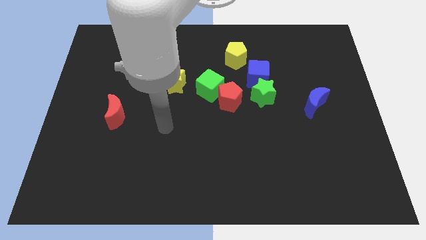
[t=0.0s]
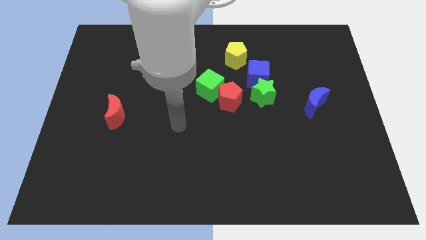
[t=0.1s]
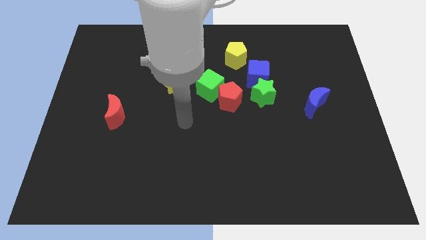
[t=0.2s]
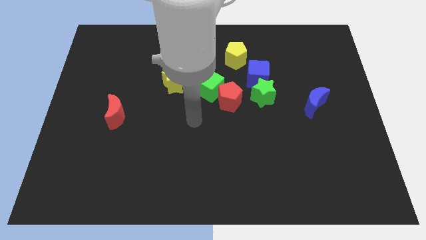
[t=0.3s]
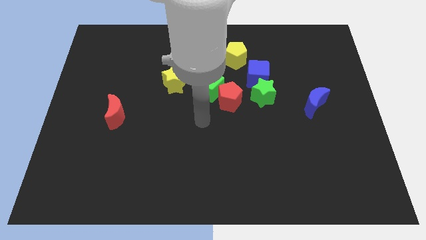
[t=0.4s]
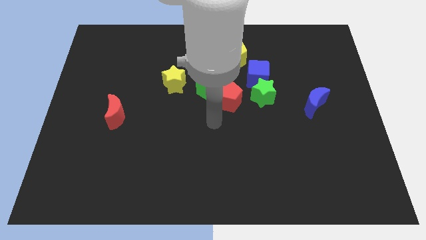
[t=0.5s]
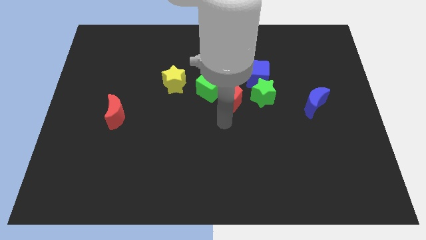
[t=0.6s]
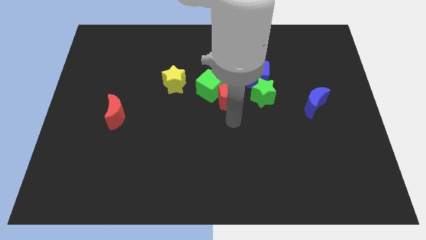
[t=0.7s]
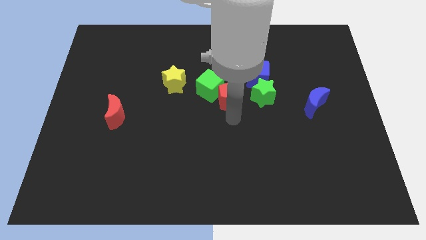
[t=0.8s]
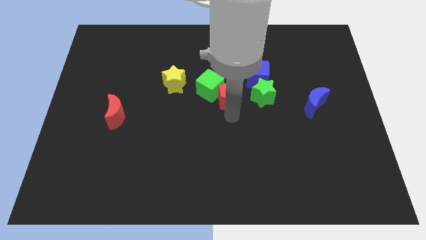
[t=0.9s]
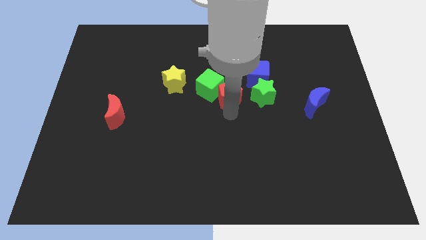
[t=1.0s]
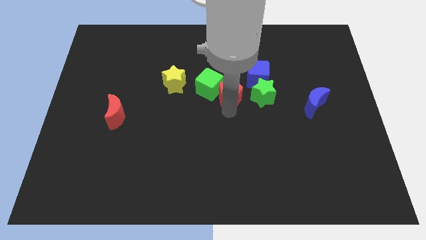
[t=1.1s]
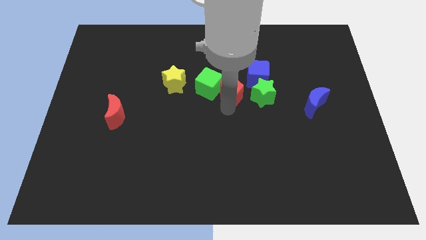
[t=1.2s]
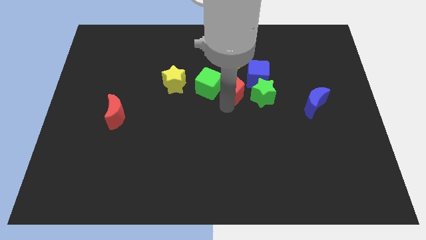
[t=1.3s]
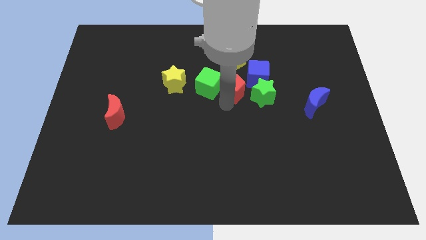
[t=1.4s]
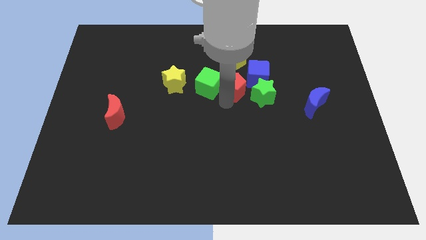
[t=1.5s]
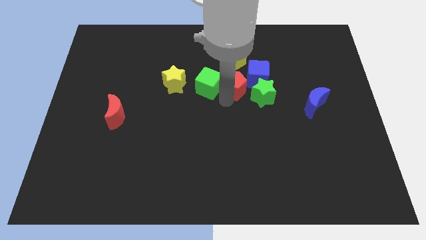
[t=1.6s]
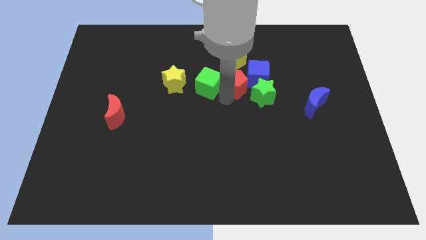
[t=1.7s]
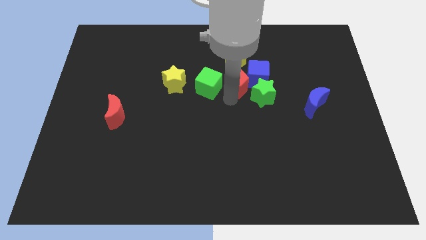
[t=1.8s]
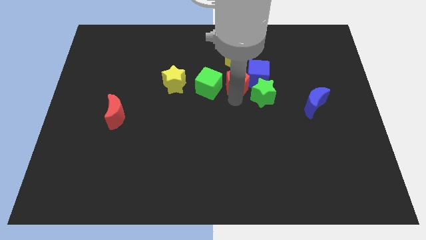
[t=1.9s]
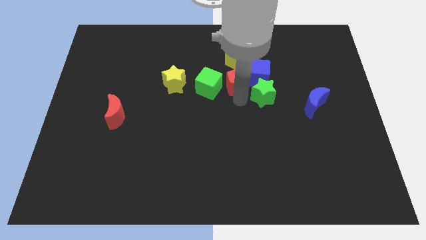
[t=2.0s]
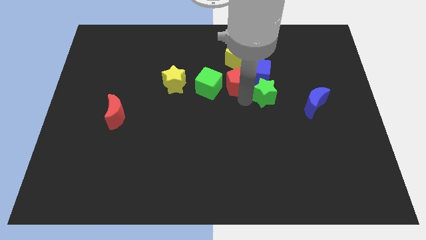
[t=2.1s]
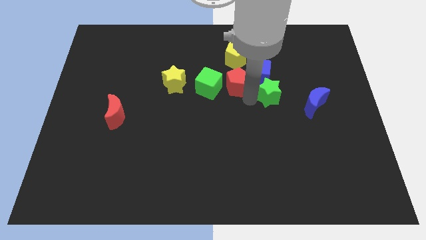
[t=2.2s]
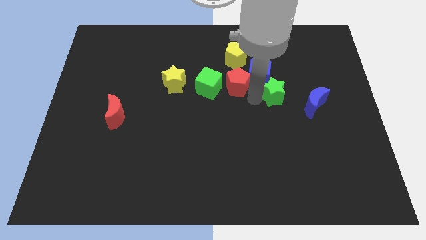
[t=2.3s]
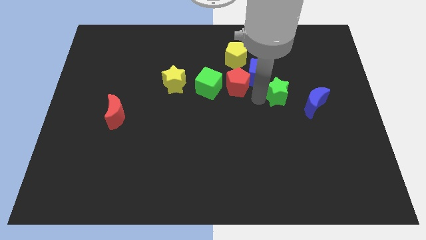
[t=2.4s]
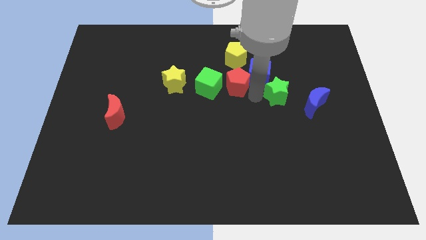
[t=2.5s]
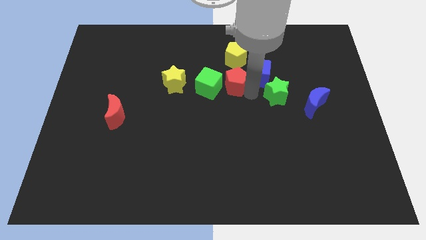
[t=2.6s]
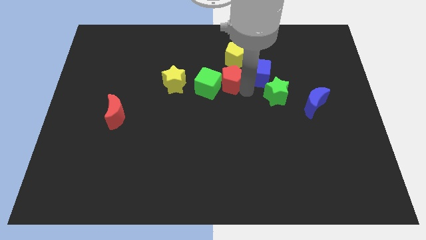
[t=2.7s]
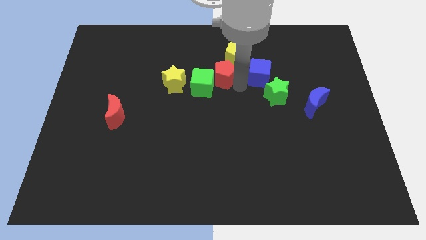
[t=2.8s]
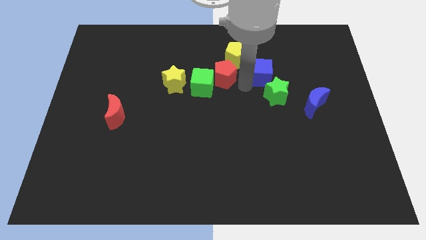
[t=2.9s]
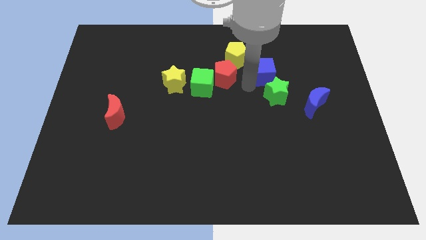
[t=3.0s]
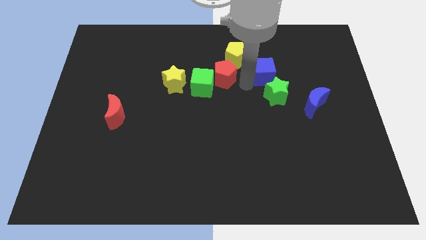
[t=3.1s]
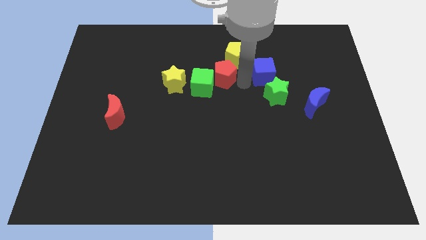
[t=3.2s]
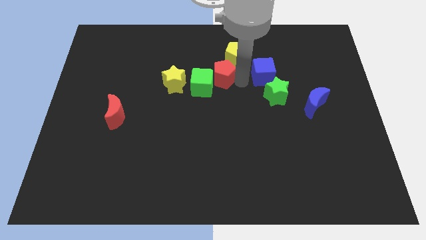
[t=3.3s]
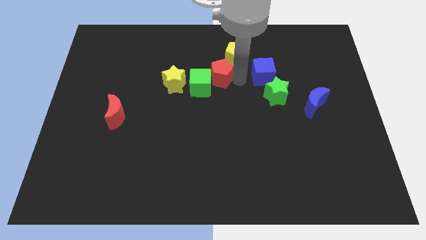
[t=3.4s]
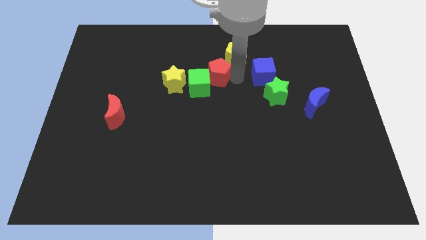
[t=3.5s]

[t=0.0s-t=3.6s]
slide the red pentagon a little bit upwards and then left

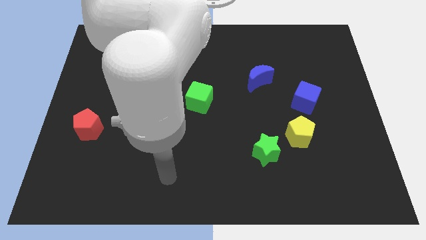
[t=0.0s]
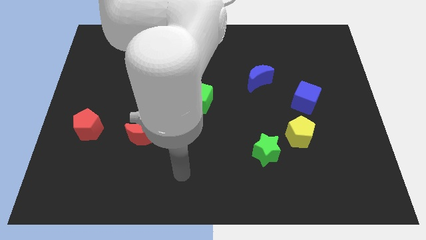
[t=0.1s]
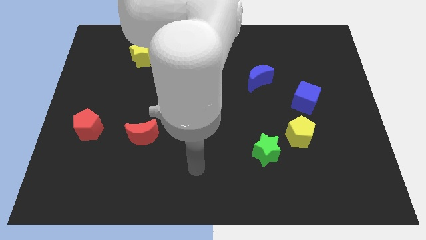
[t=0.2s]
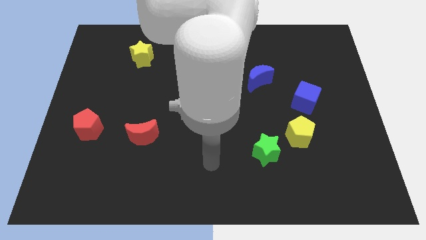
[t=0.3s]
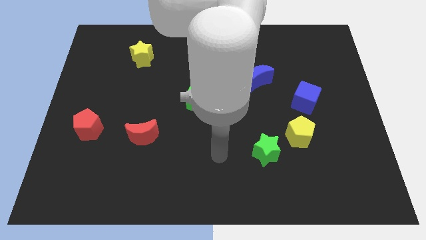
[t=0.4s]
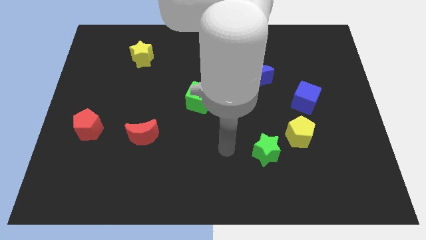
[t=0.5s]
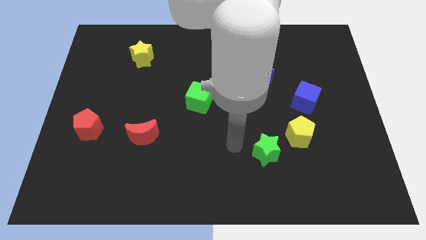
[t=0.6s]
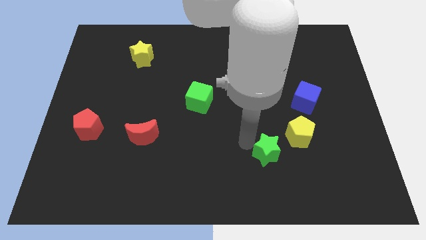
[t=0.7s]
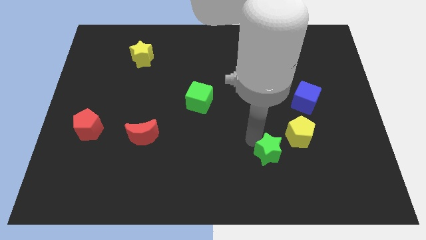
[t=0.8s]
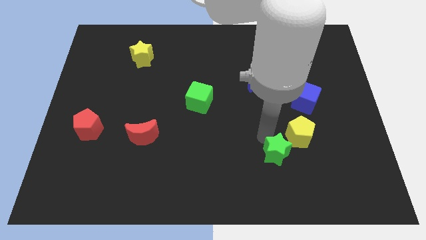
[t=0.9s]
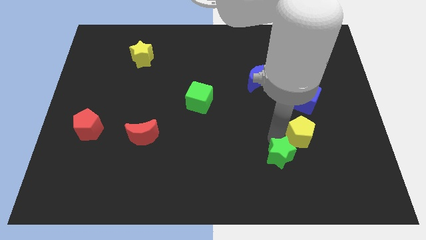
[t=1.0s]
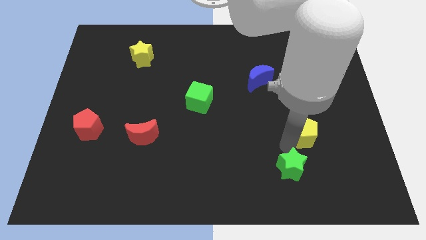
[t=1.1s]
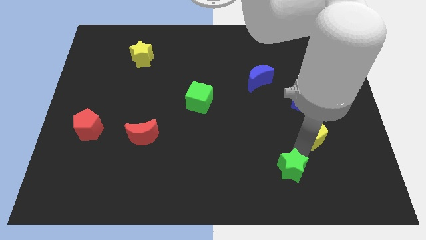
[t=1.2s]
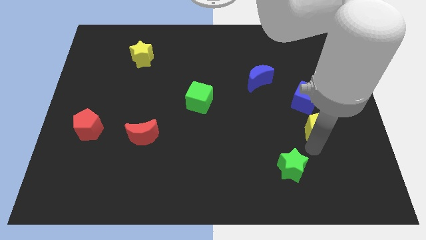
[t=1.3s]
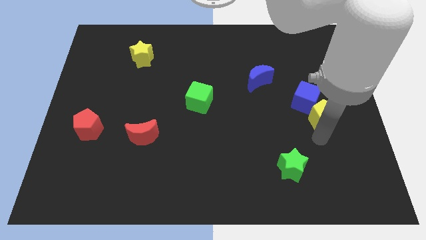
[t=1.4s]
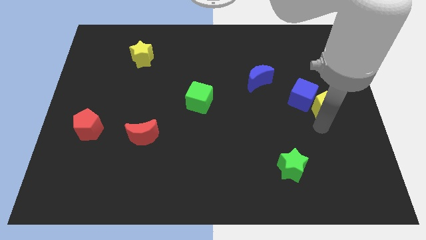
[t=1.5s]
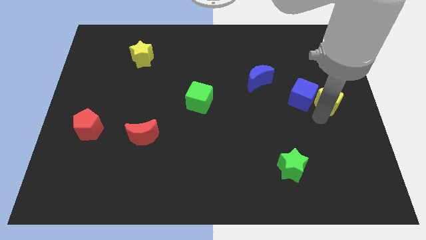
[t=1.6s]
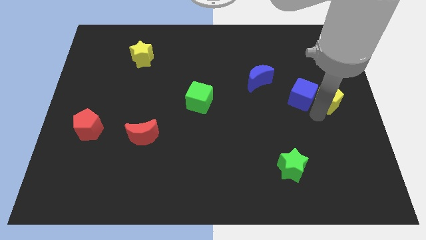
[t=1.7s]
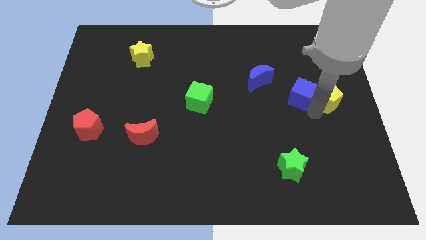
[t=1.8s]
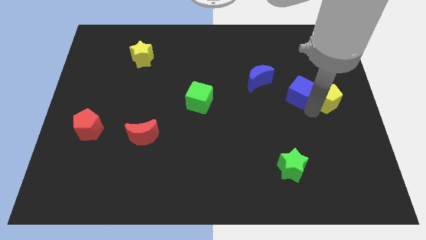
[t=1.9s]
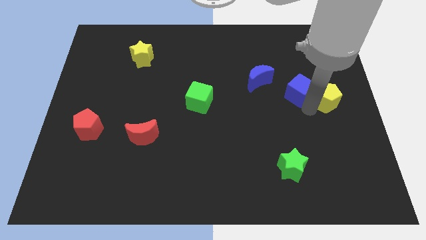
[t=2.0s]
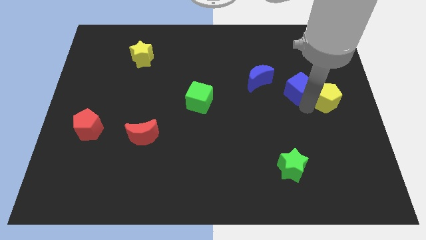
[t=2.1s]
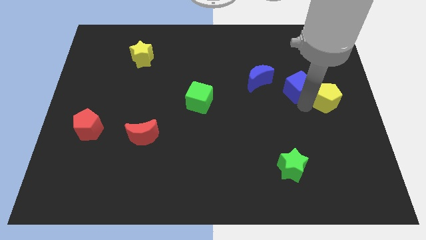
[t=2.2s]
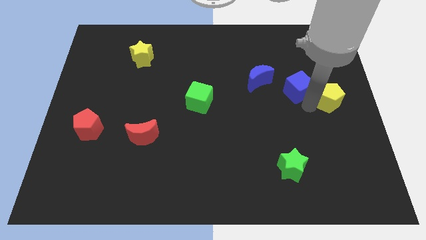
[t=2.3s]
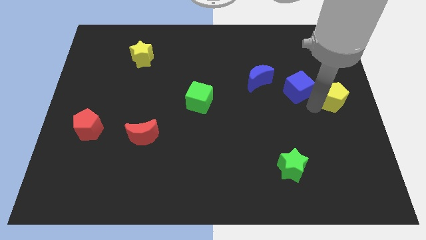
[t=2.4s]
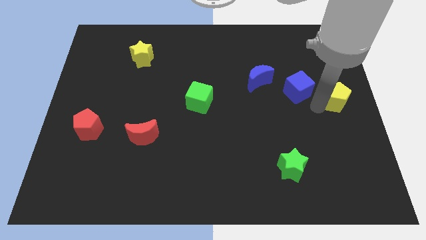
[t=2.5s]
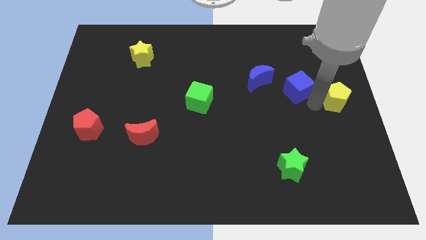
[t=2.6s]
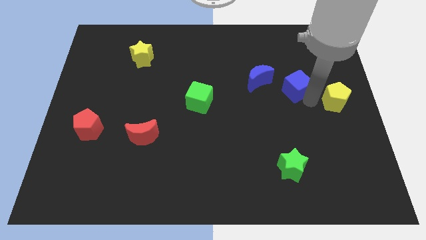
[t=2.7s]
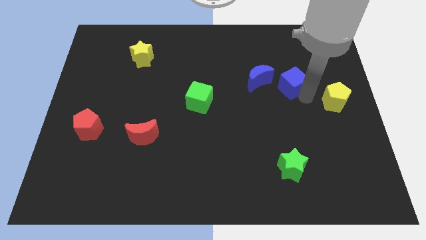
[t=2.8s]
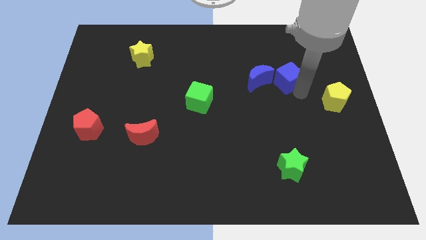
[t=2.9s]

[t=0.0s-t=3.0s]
move the blue cube up and left somewhat

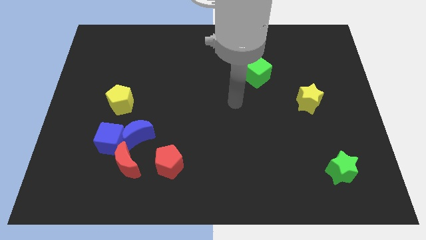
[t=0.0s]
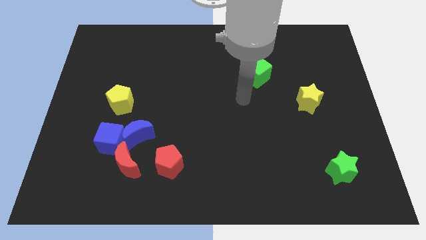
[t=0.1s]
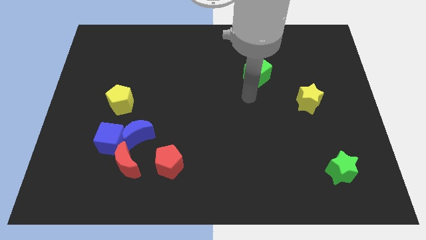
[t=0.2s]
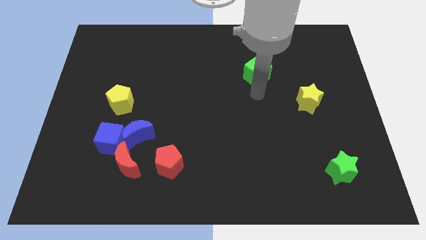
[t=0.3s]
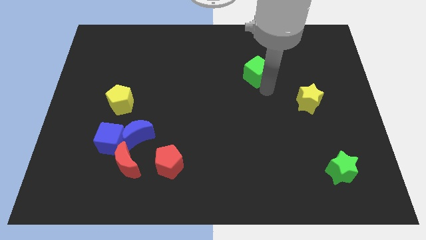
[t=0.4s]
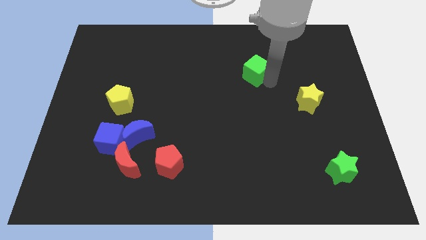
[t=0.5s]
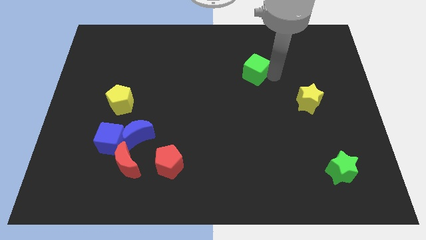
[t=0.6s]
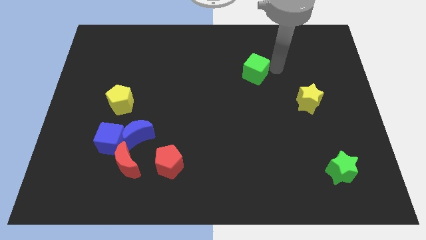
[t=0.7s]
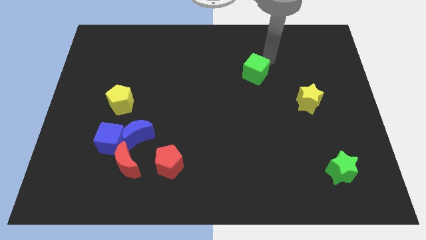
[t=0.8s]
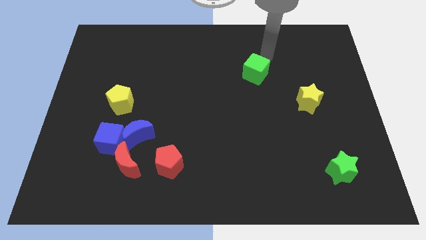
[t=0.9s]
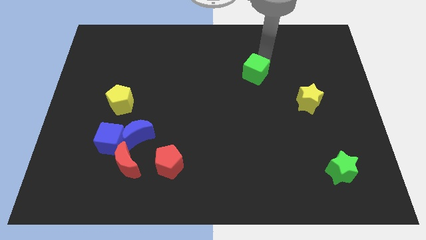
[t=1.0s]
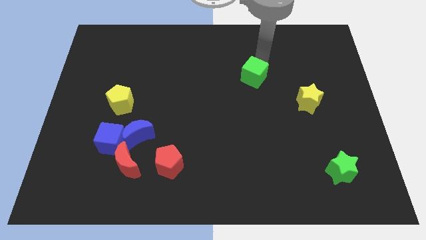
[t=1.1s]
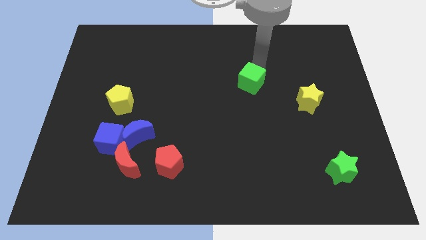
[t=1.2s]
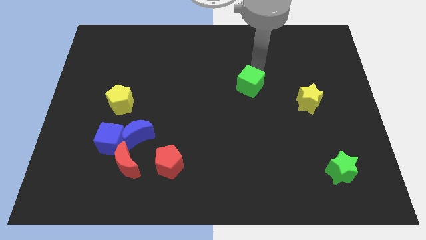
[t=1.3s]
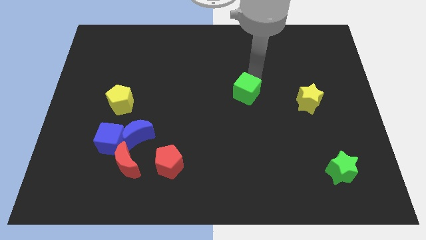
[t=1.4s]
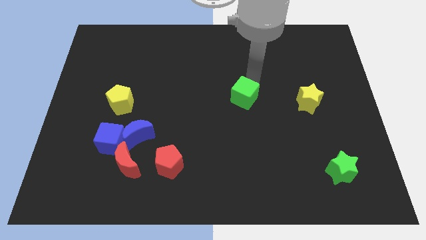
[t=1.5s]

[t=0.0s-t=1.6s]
push the green cube downwards and left diagonally a little
